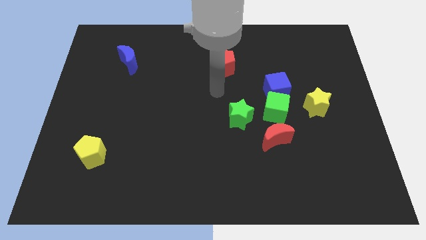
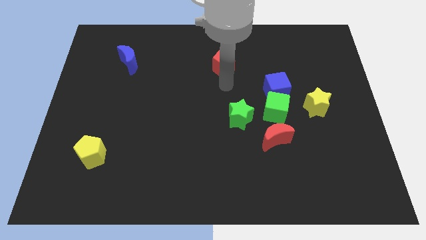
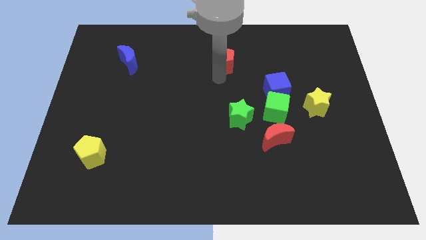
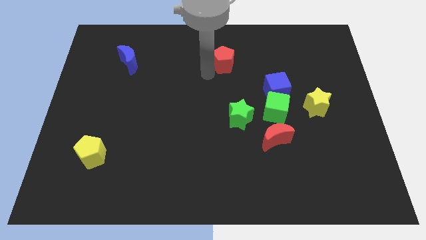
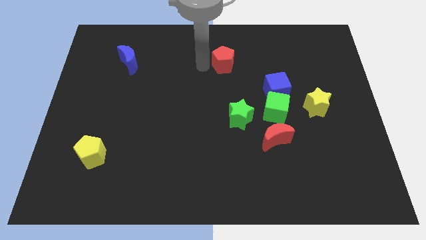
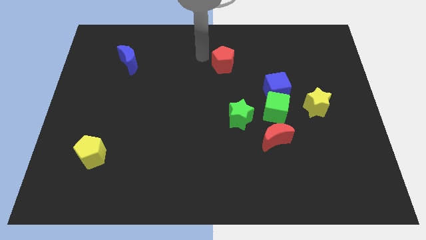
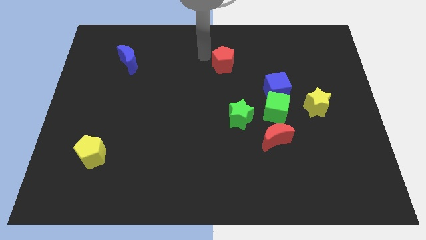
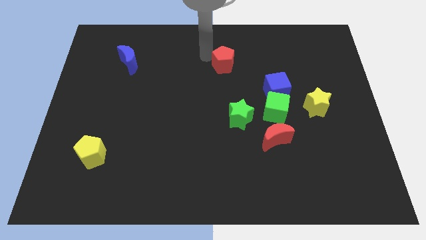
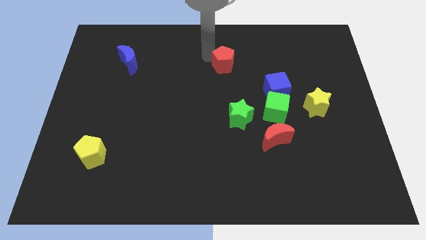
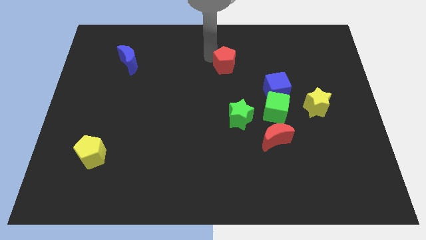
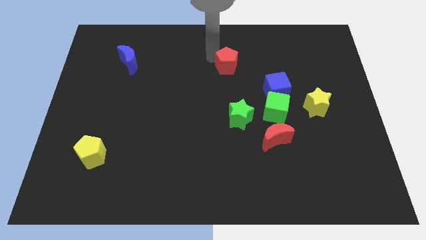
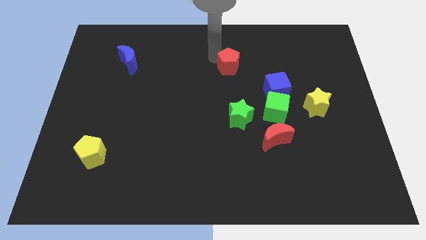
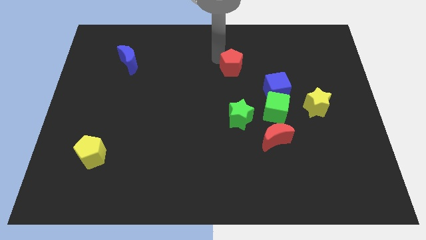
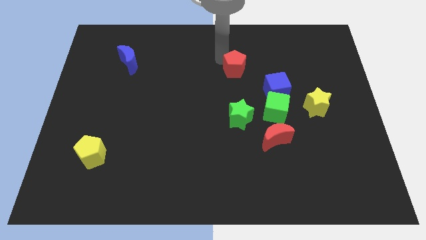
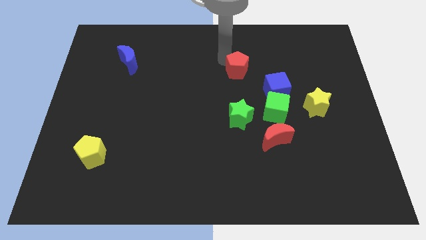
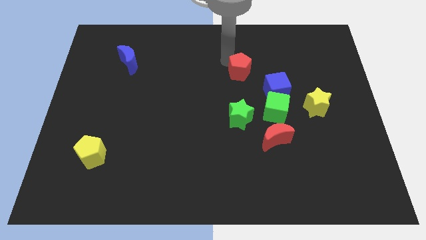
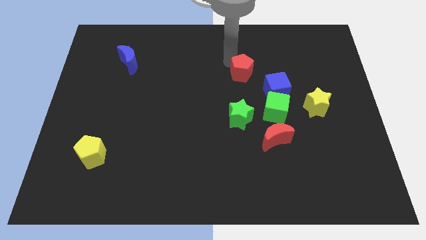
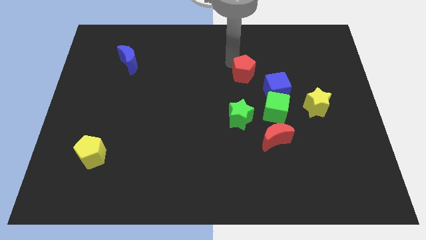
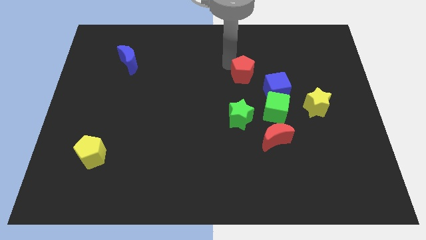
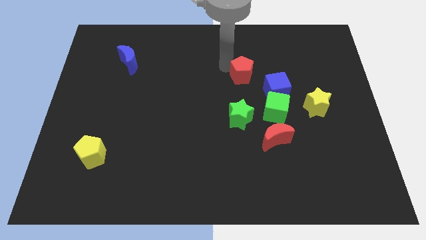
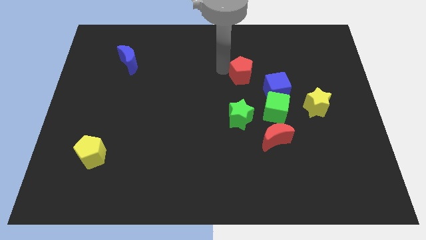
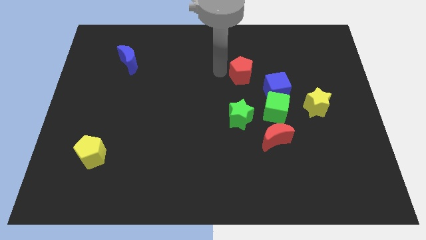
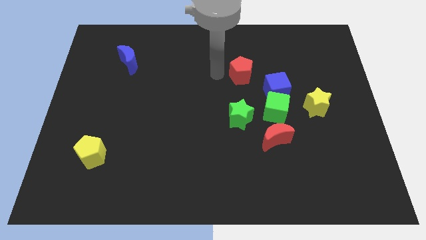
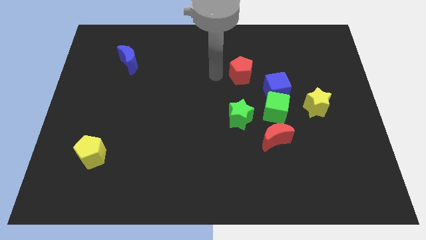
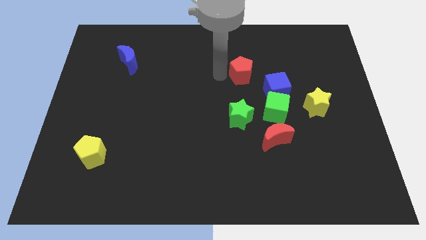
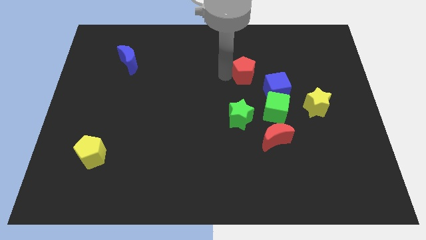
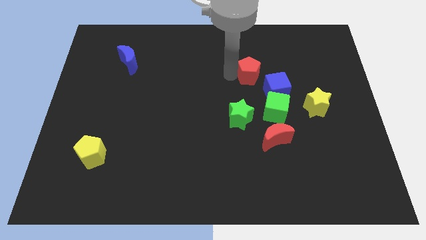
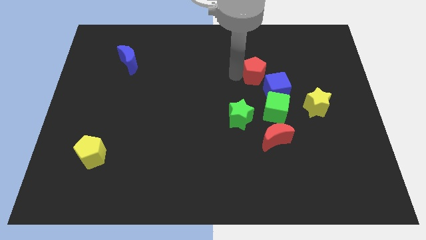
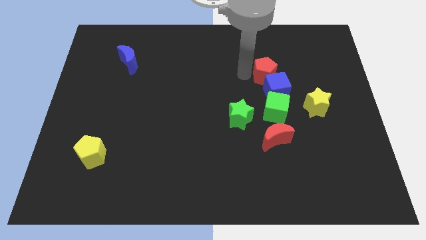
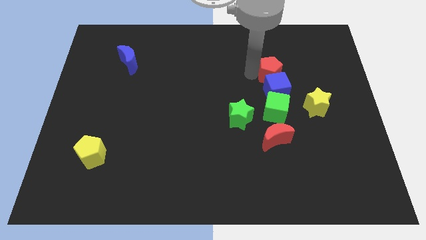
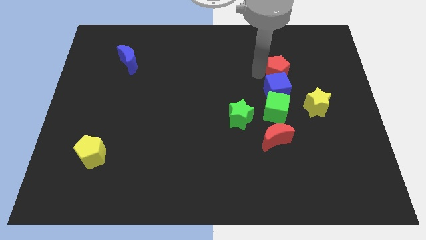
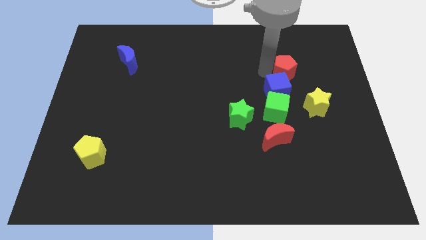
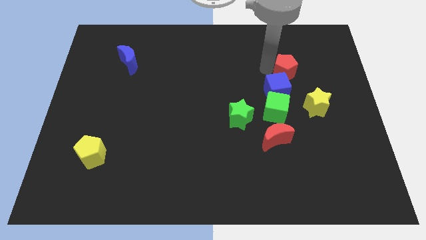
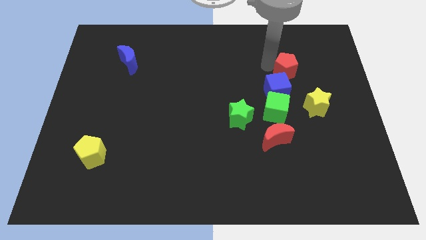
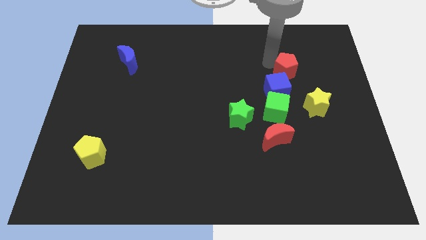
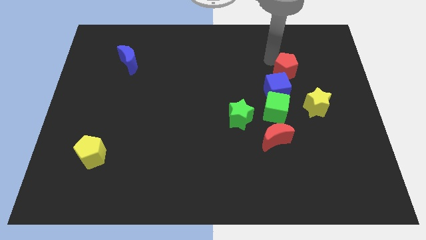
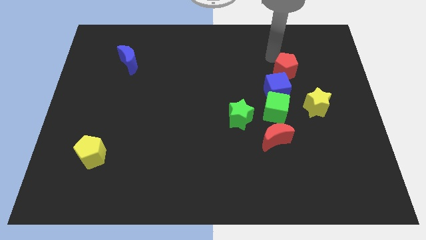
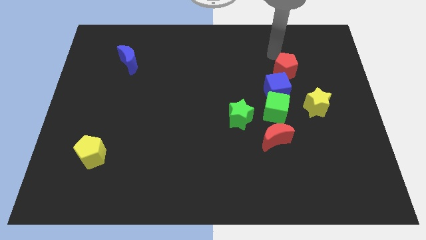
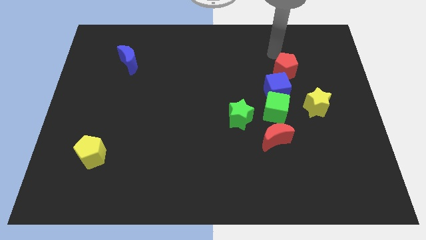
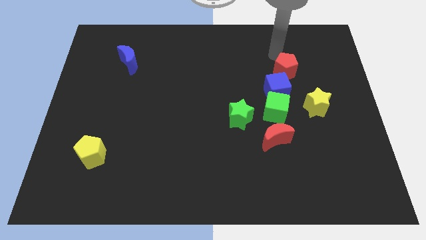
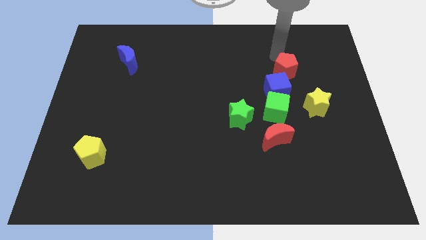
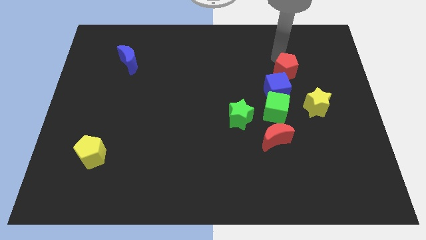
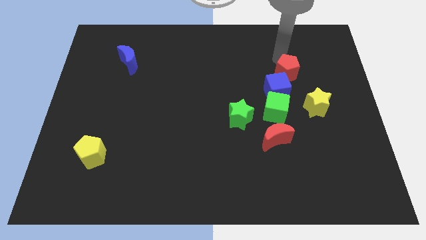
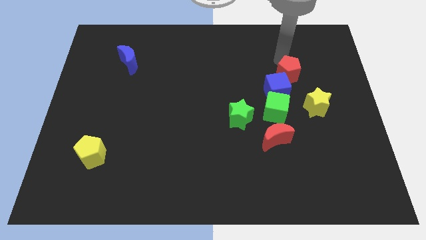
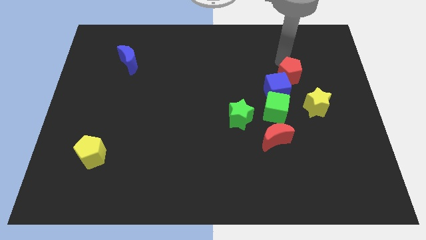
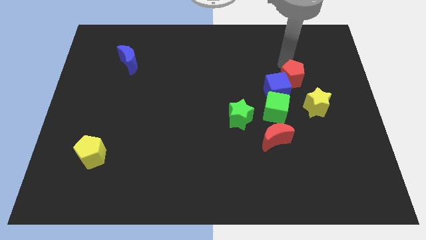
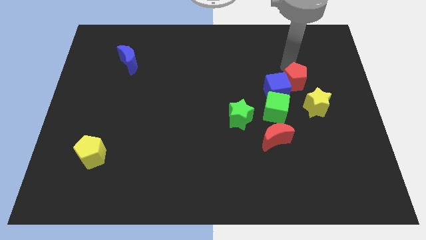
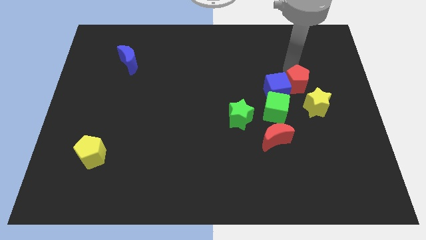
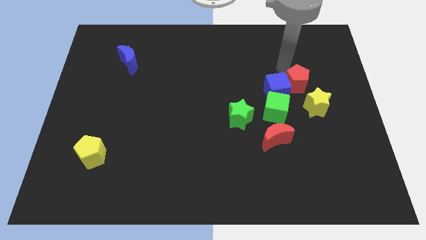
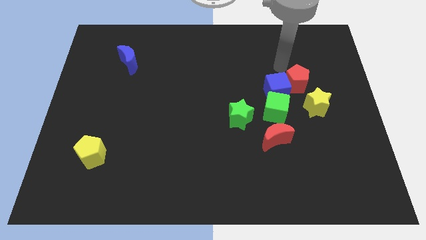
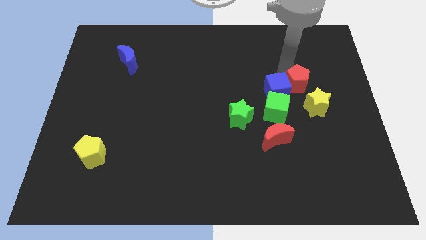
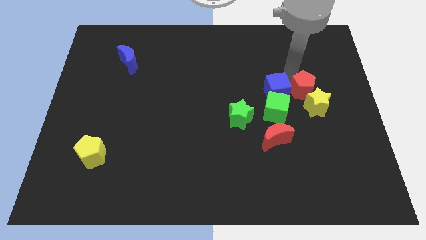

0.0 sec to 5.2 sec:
push the red pentagon to the yellow star

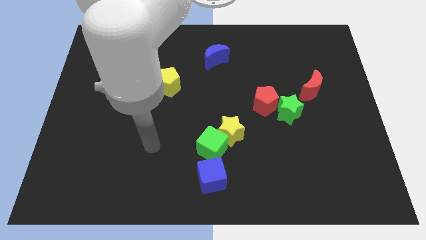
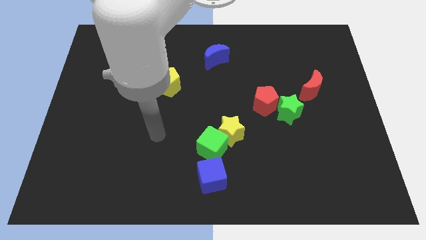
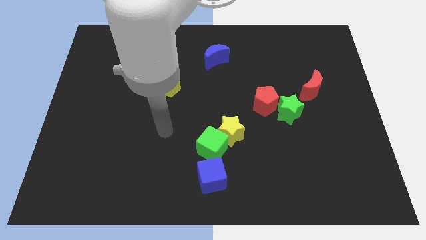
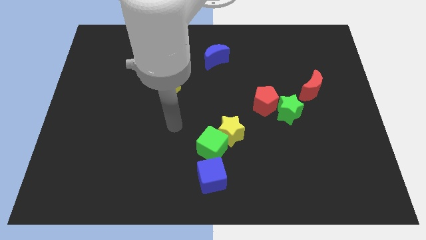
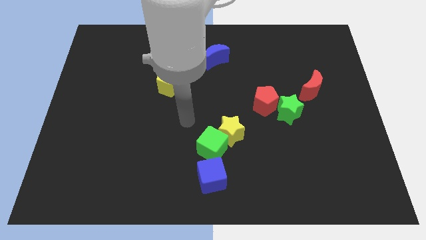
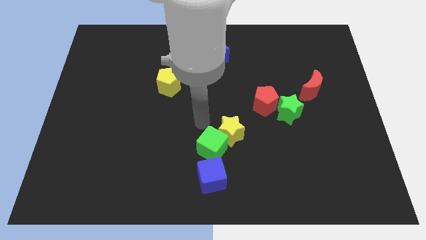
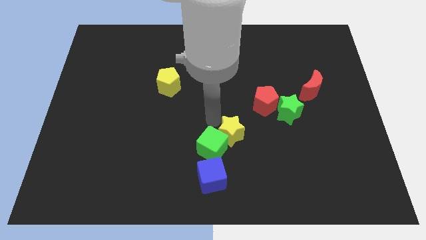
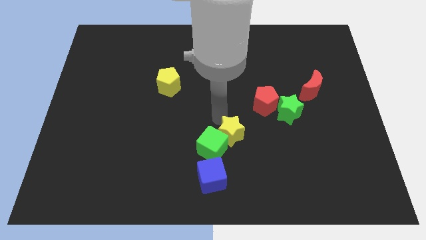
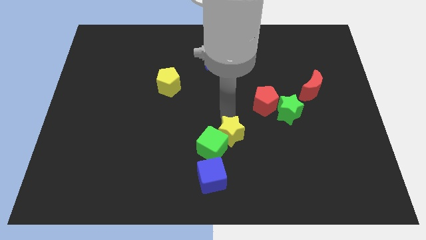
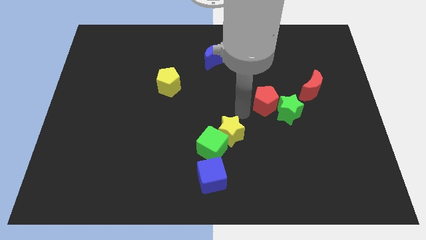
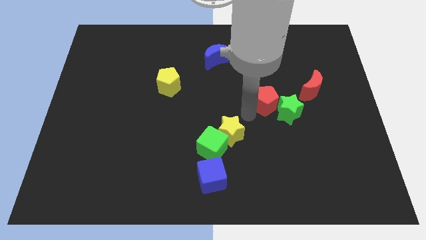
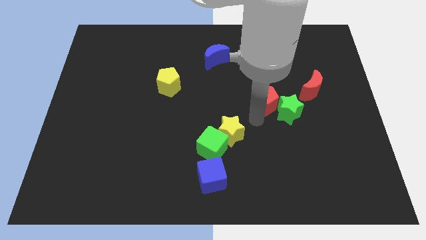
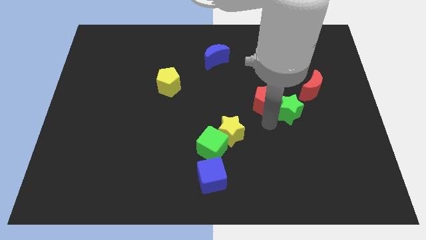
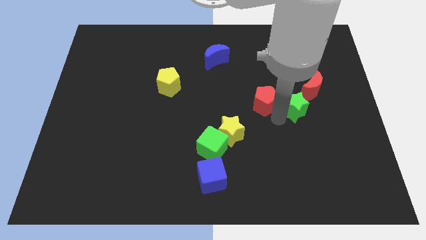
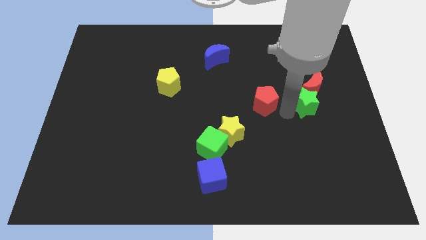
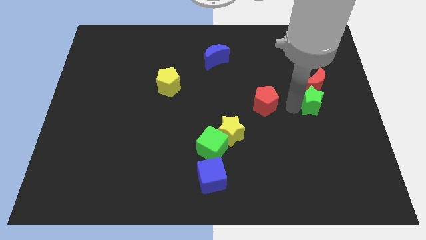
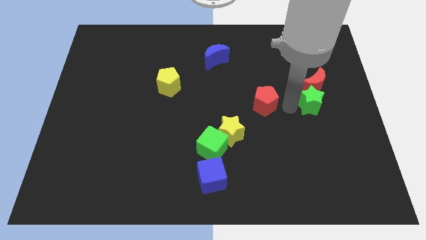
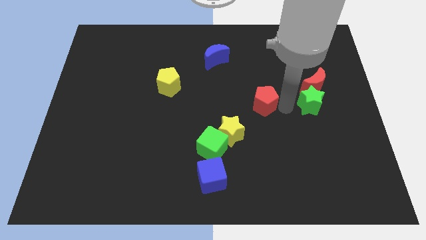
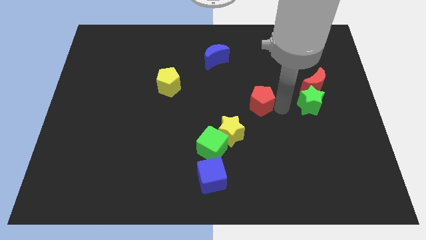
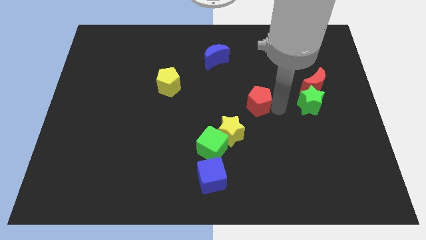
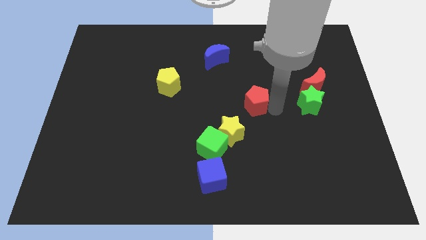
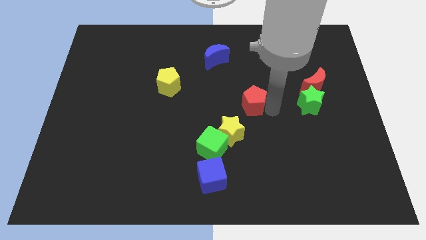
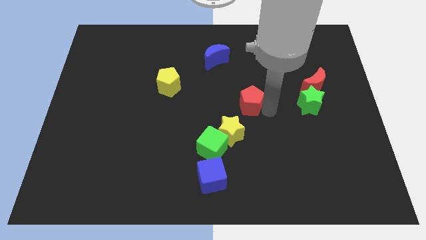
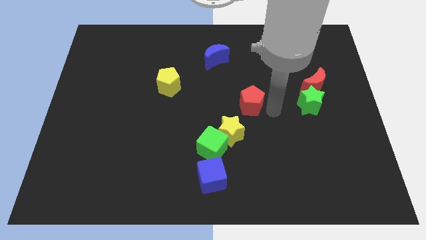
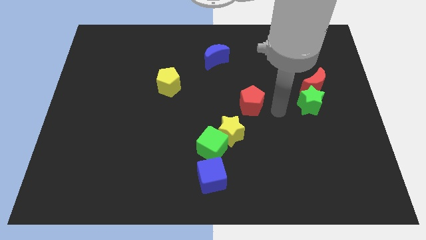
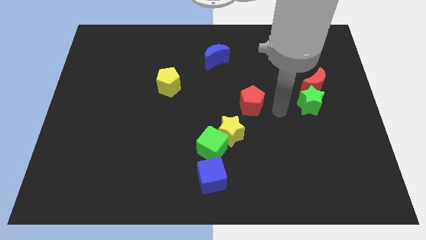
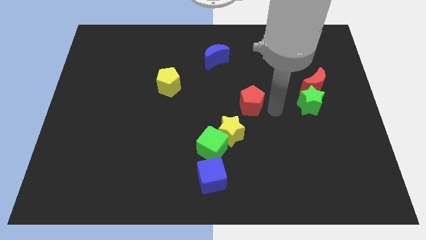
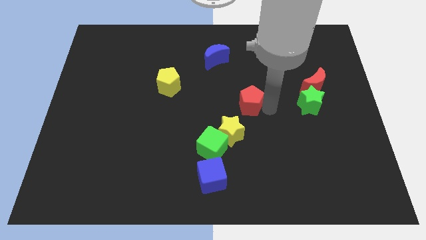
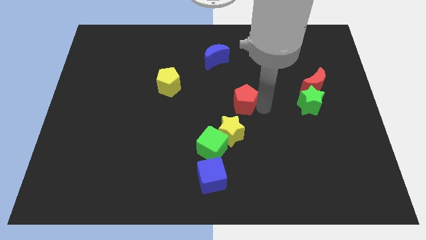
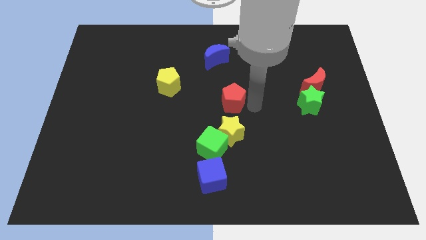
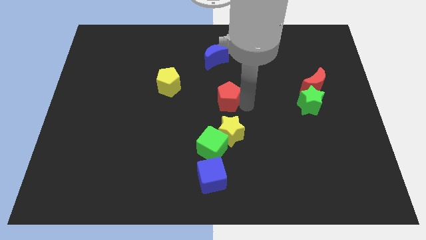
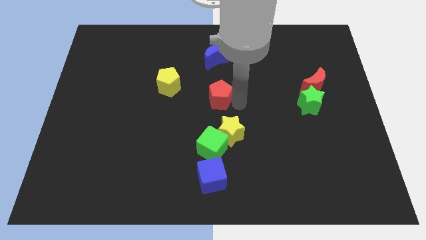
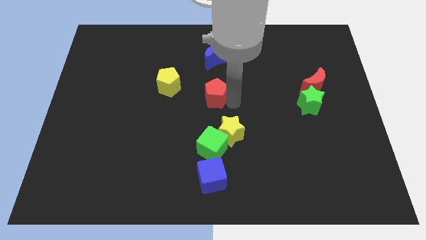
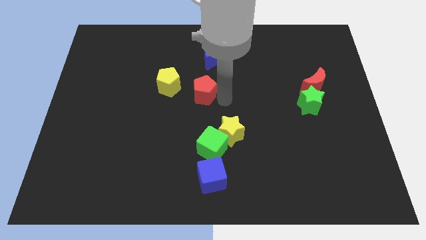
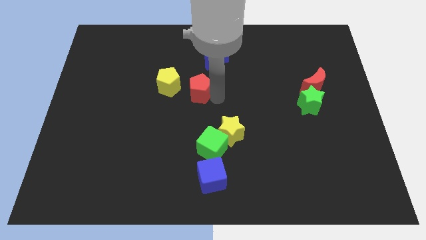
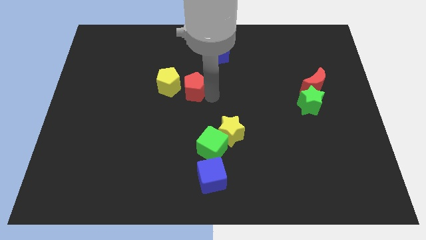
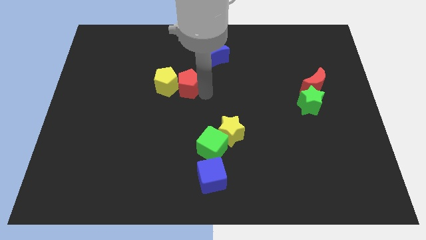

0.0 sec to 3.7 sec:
slide the red pentagon to the yellow pentagon
